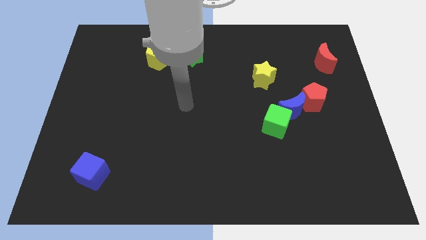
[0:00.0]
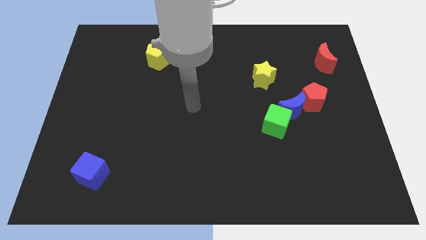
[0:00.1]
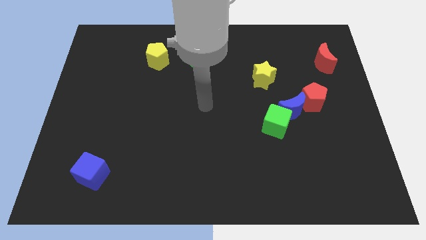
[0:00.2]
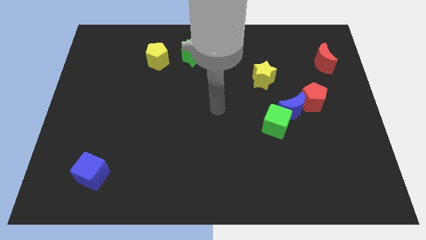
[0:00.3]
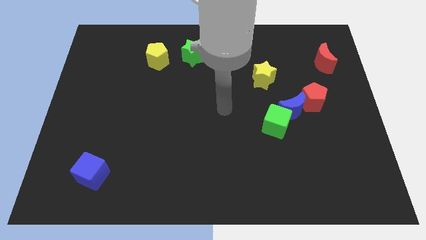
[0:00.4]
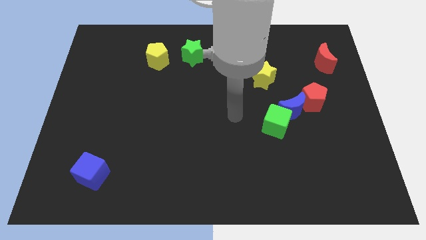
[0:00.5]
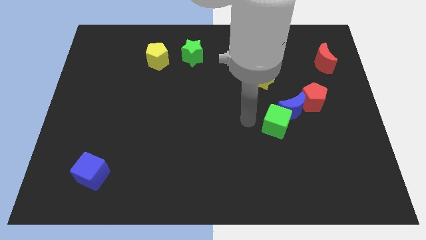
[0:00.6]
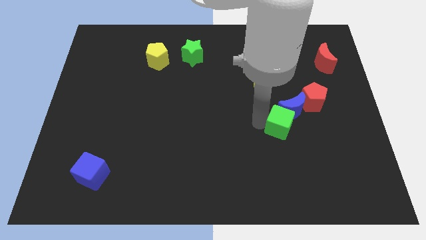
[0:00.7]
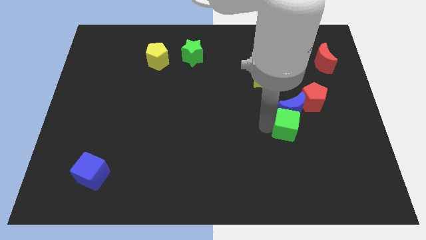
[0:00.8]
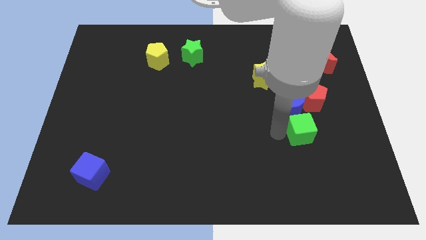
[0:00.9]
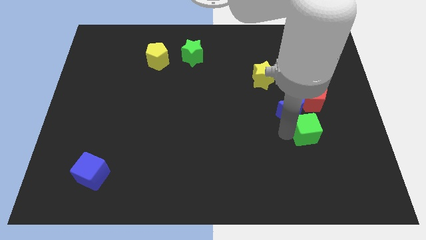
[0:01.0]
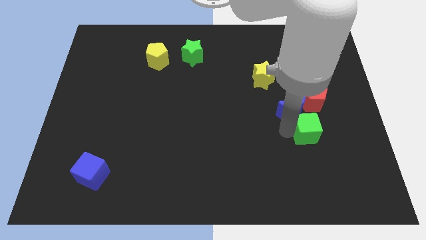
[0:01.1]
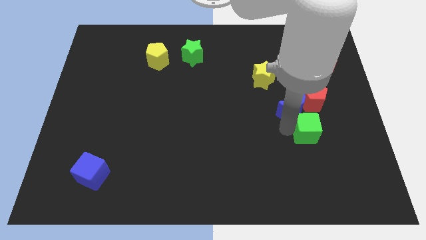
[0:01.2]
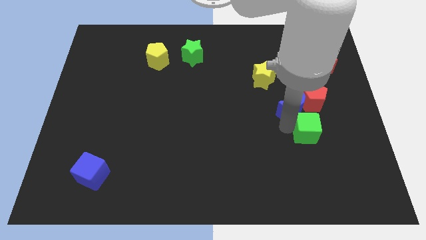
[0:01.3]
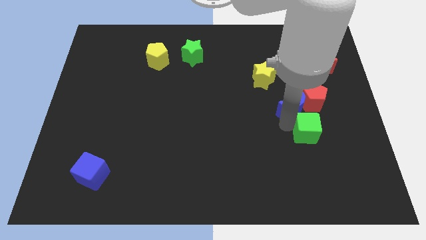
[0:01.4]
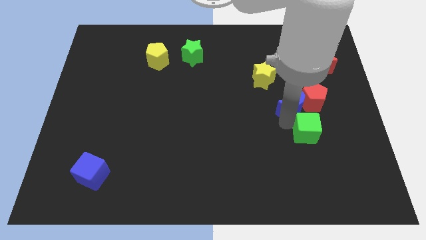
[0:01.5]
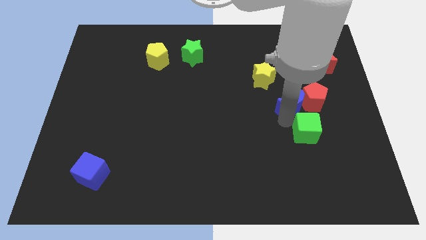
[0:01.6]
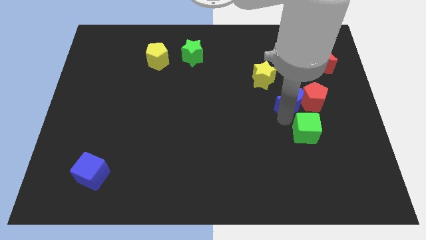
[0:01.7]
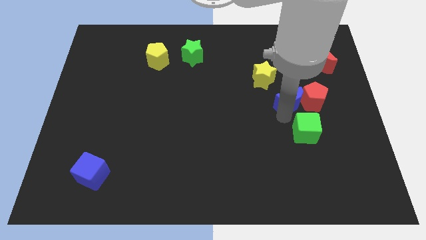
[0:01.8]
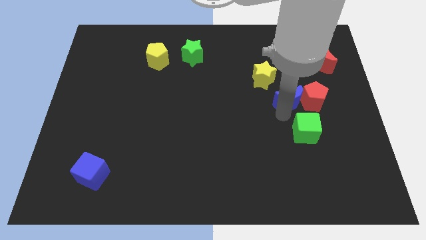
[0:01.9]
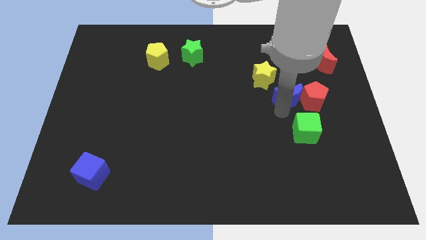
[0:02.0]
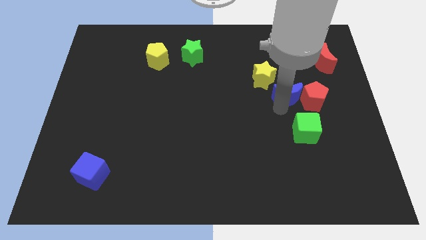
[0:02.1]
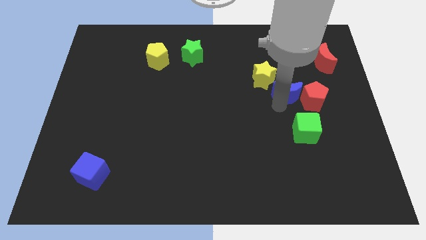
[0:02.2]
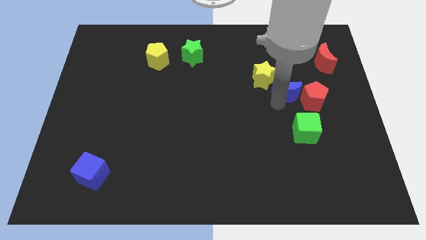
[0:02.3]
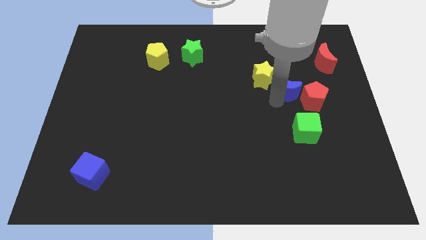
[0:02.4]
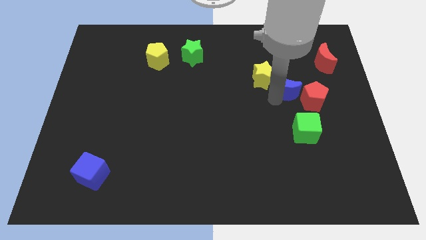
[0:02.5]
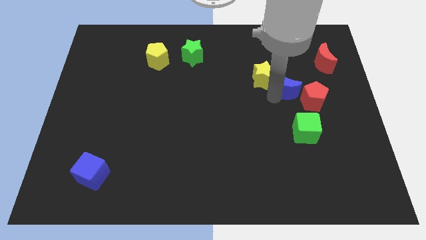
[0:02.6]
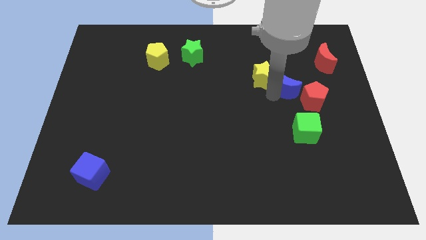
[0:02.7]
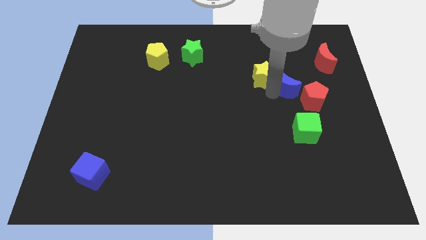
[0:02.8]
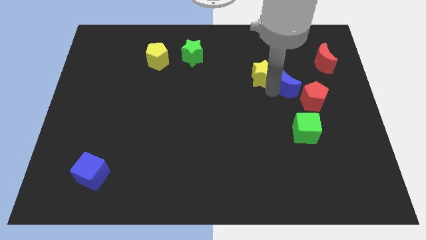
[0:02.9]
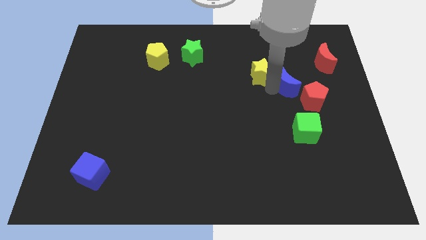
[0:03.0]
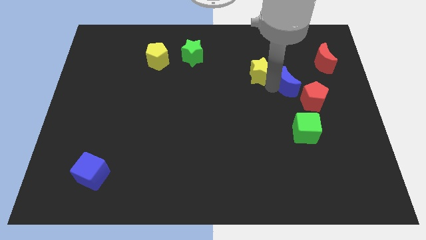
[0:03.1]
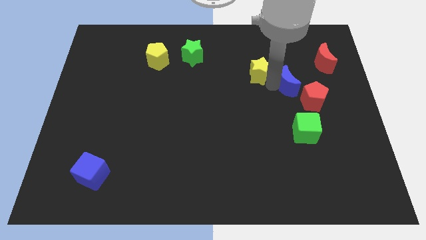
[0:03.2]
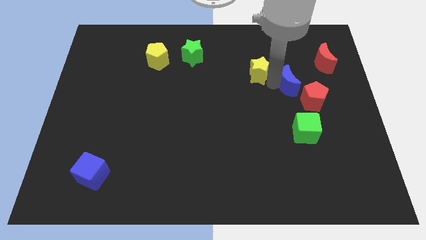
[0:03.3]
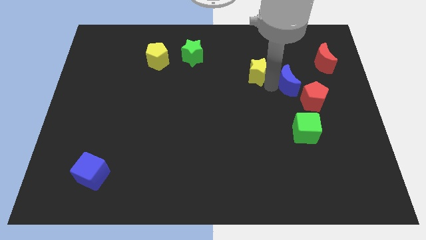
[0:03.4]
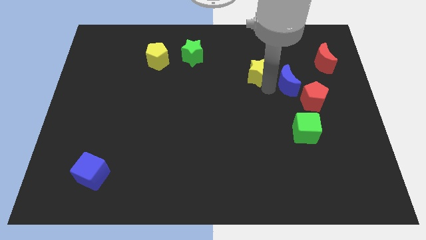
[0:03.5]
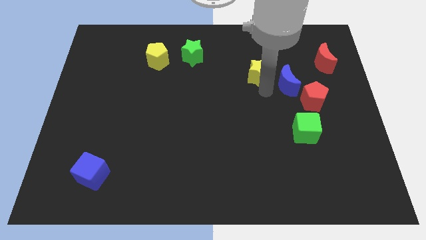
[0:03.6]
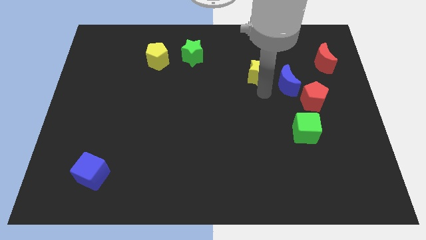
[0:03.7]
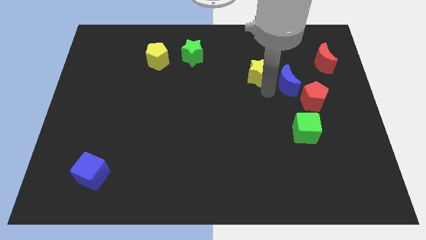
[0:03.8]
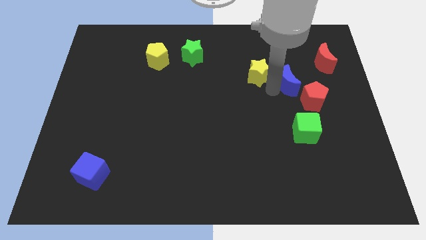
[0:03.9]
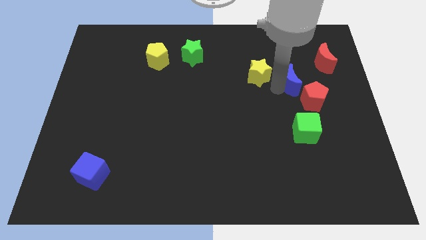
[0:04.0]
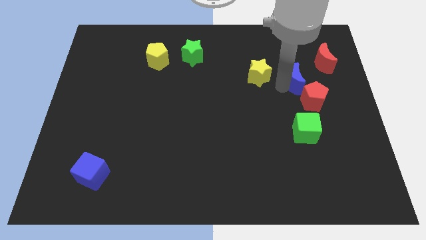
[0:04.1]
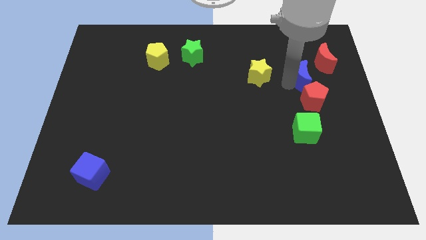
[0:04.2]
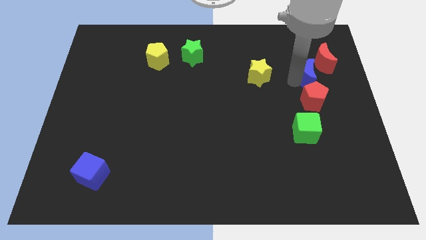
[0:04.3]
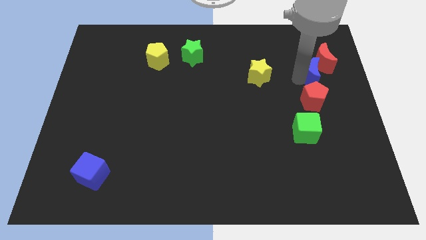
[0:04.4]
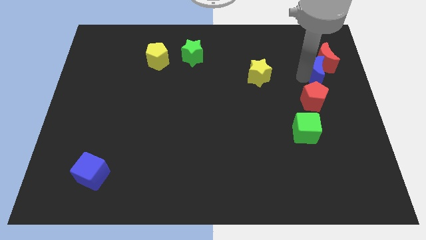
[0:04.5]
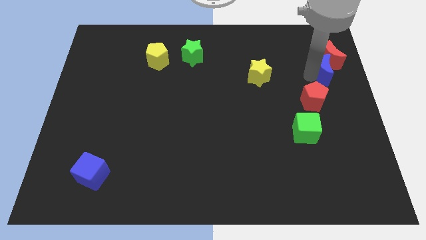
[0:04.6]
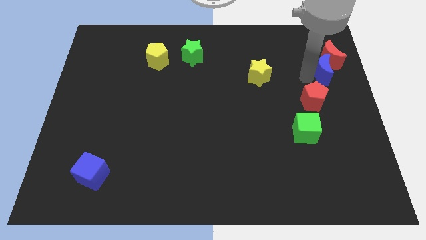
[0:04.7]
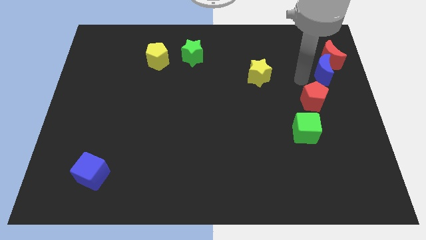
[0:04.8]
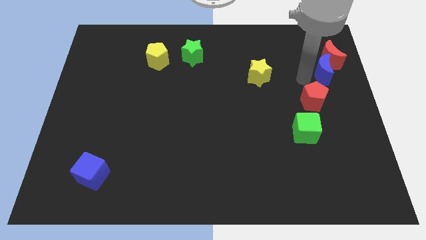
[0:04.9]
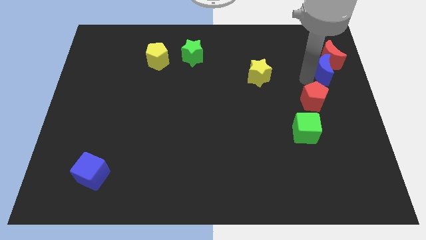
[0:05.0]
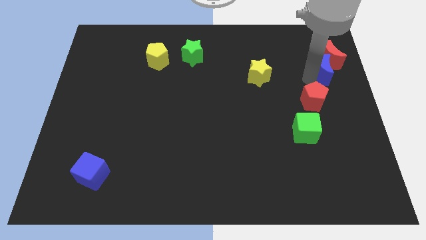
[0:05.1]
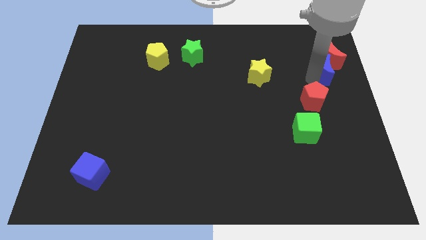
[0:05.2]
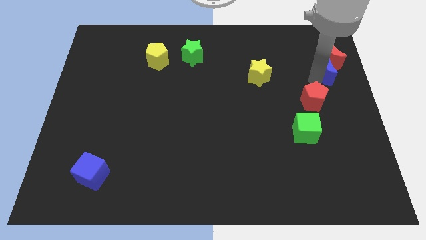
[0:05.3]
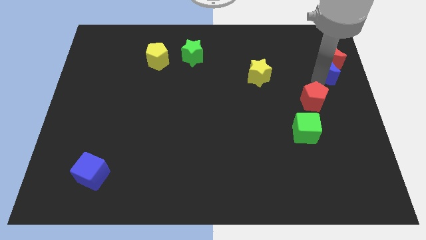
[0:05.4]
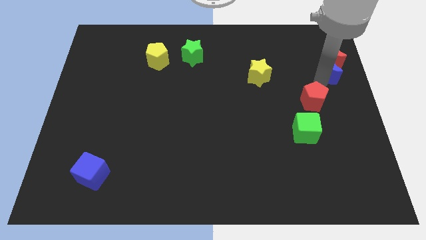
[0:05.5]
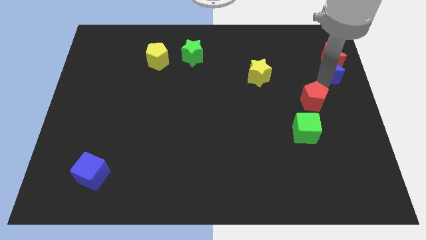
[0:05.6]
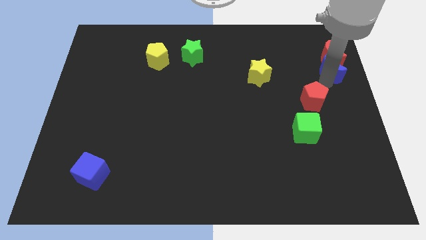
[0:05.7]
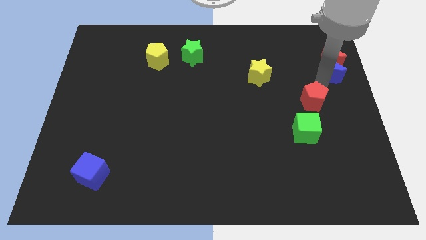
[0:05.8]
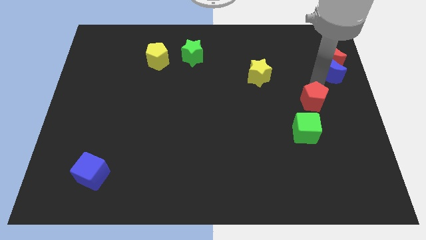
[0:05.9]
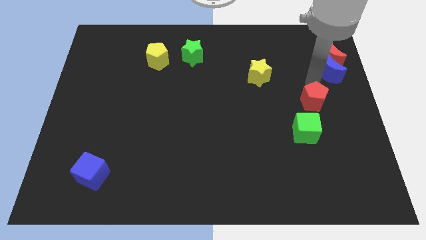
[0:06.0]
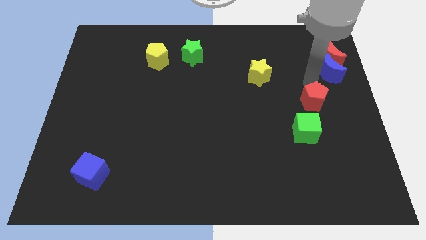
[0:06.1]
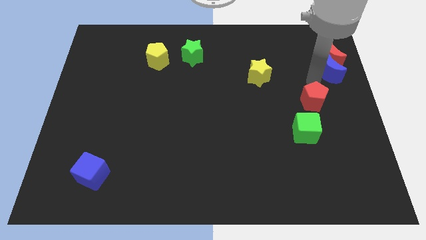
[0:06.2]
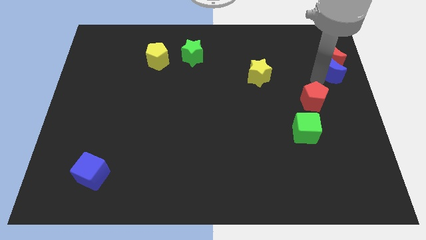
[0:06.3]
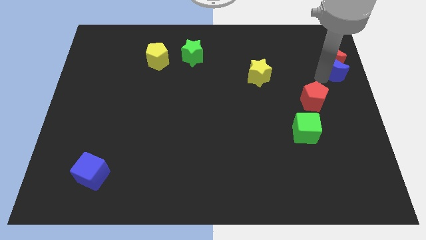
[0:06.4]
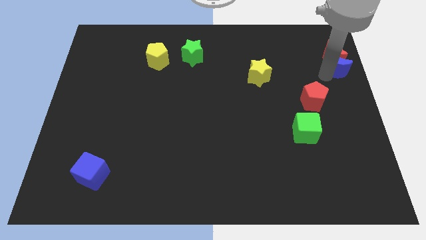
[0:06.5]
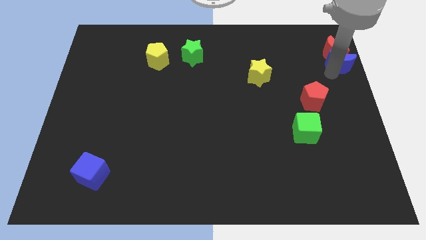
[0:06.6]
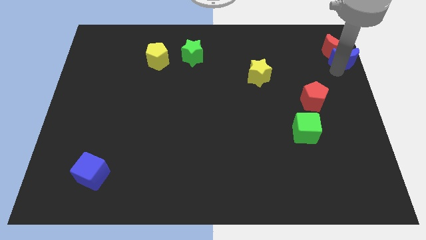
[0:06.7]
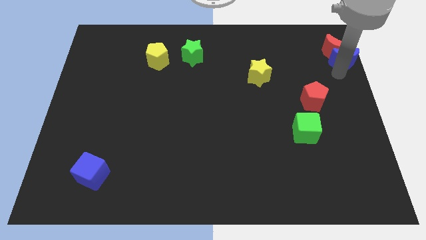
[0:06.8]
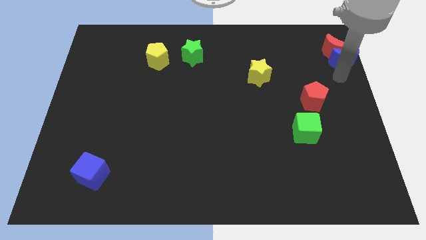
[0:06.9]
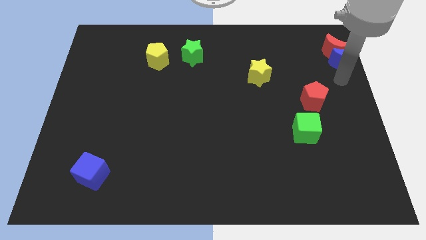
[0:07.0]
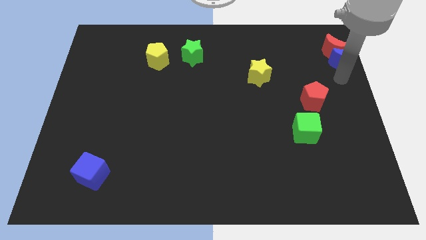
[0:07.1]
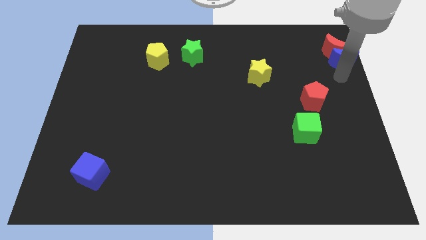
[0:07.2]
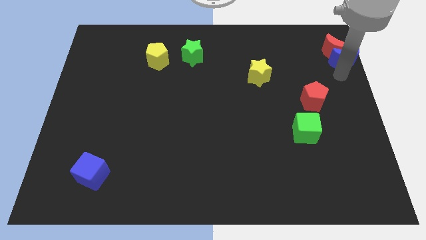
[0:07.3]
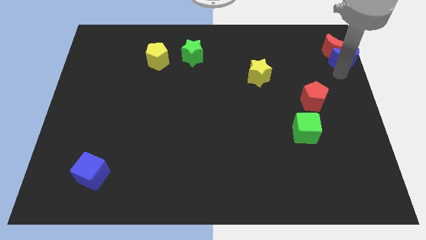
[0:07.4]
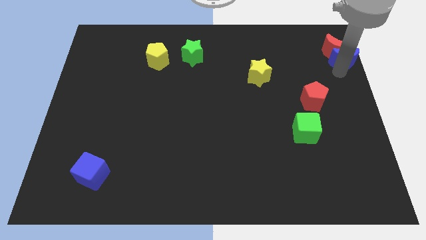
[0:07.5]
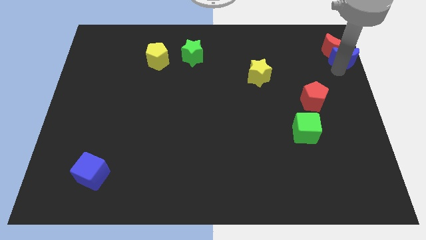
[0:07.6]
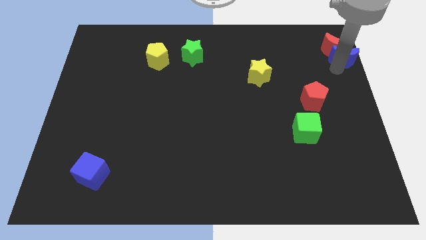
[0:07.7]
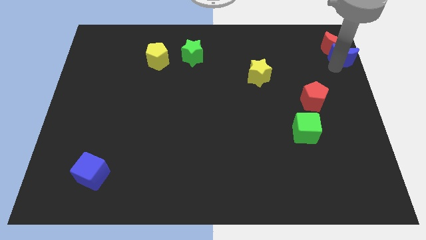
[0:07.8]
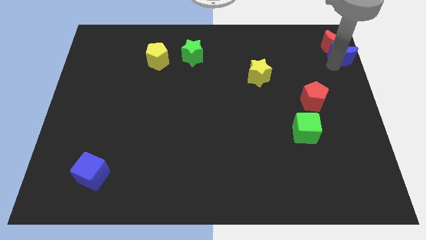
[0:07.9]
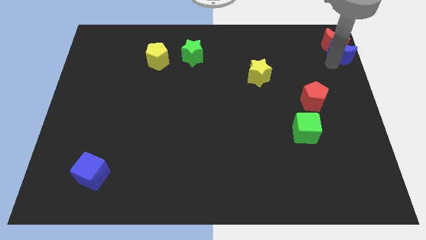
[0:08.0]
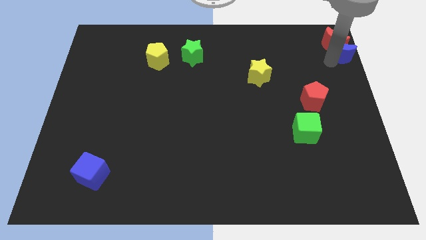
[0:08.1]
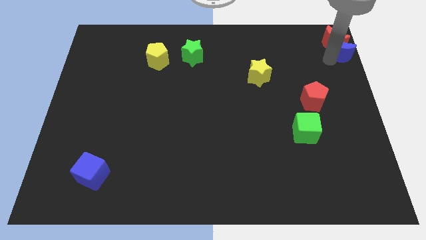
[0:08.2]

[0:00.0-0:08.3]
push the blue moon to the top right of the board
